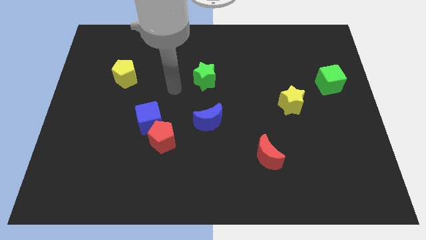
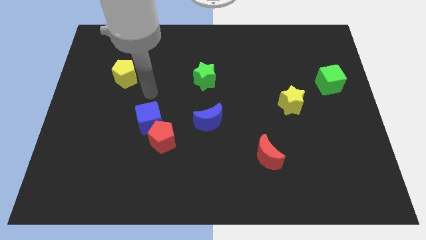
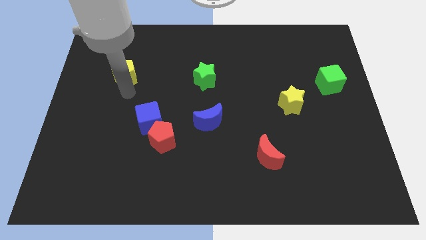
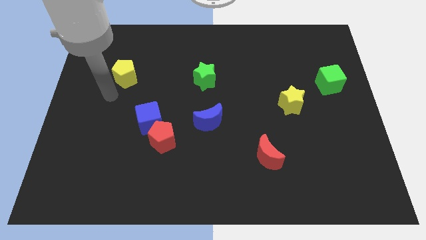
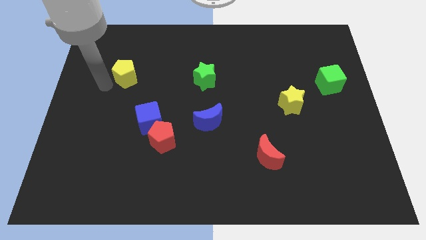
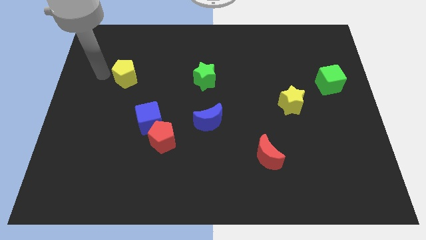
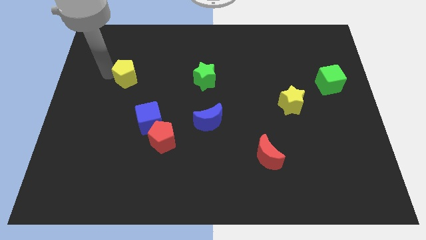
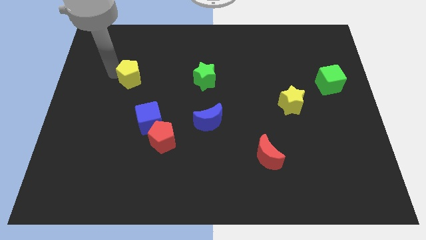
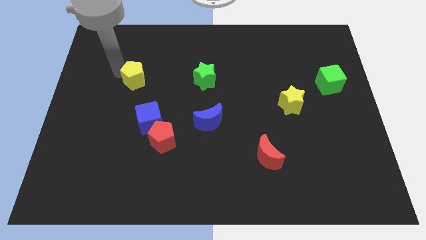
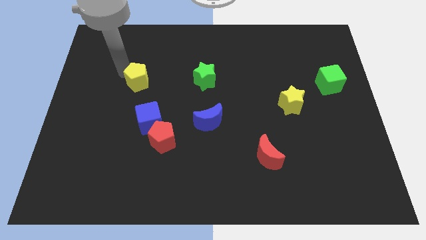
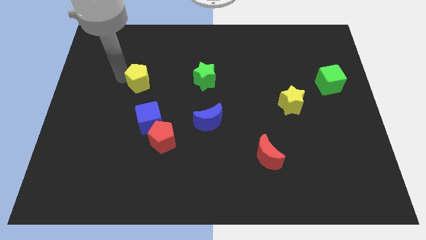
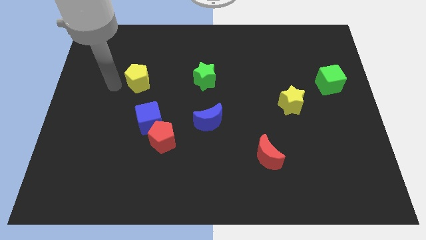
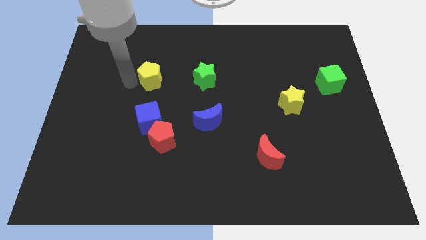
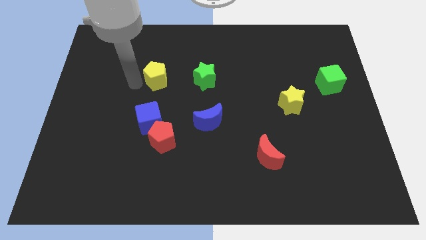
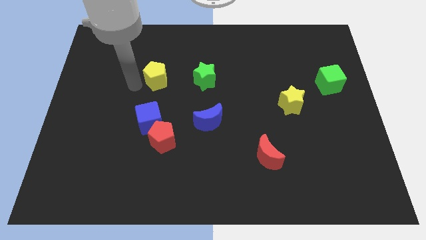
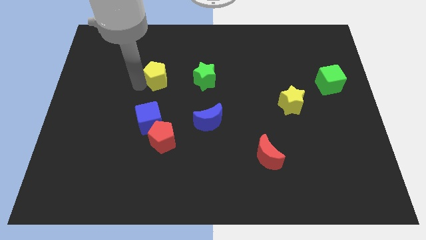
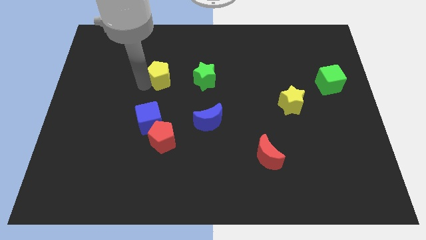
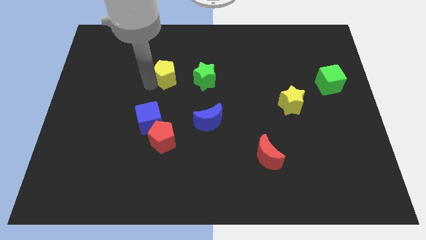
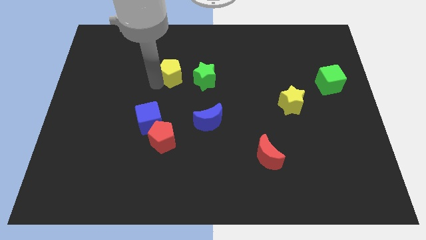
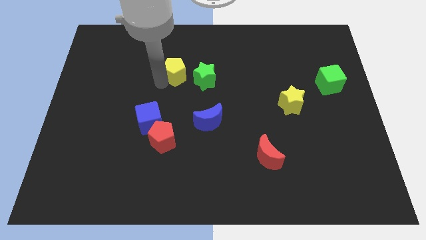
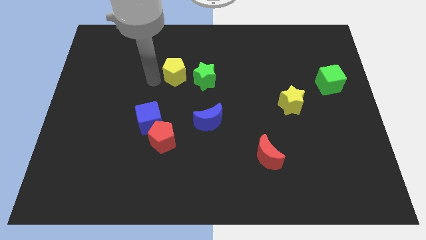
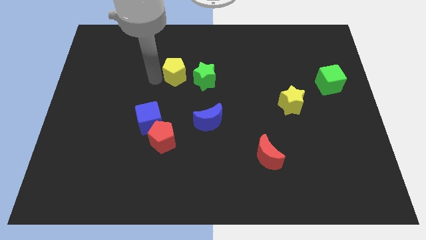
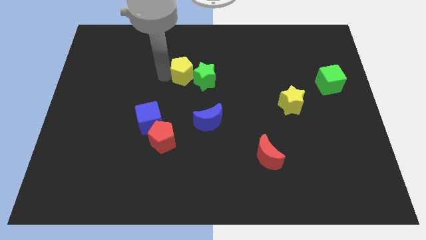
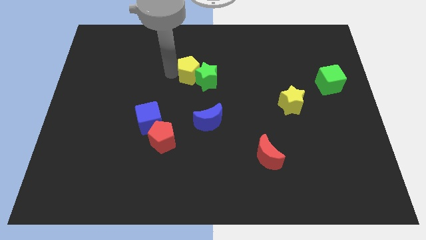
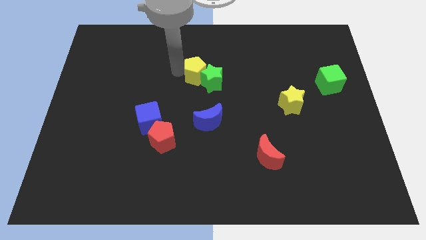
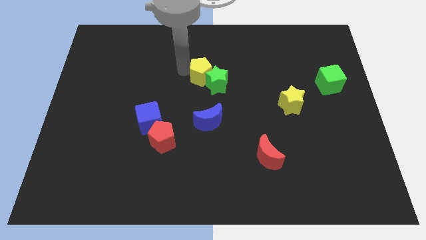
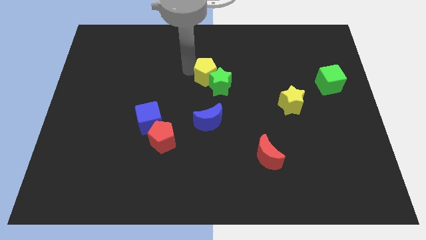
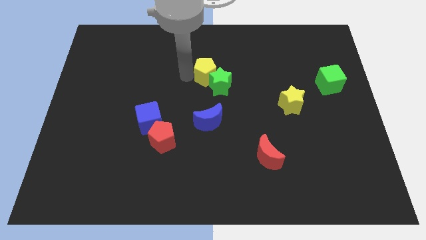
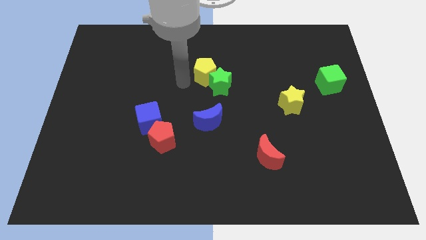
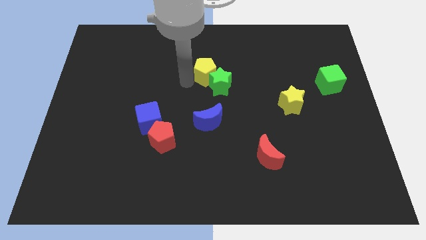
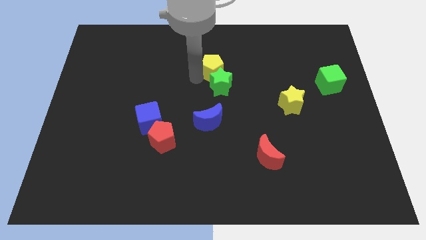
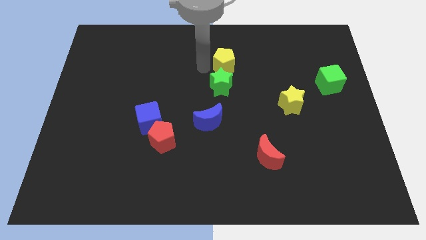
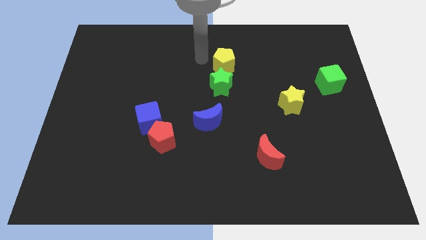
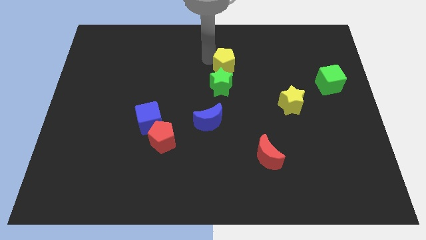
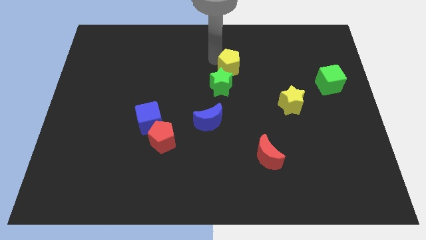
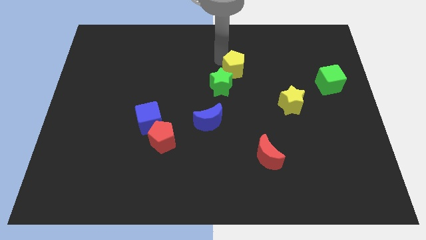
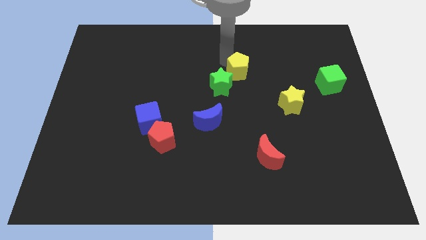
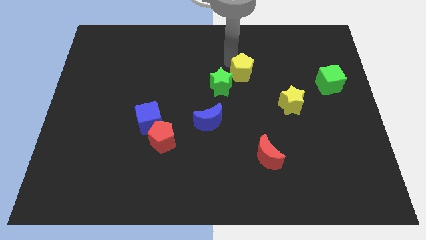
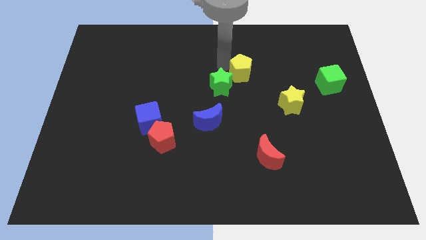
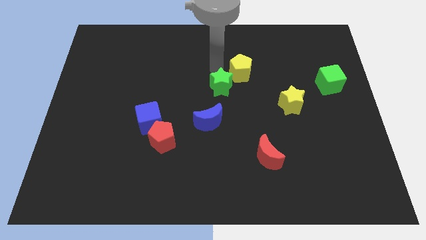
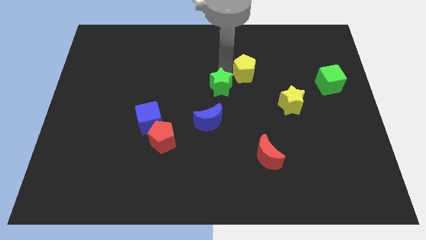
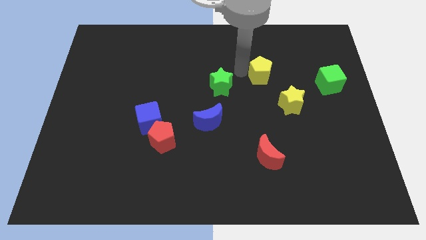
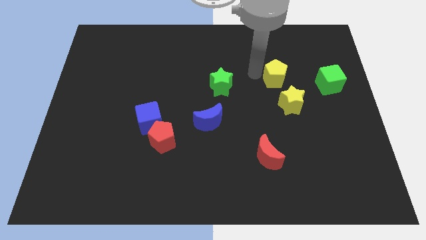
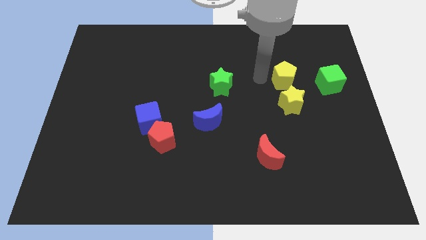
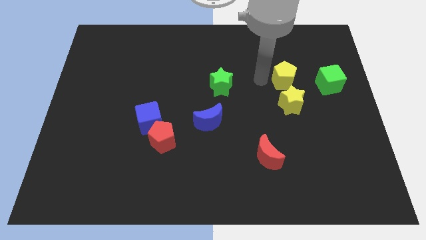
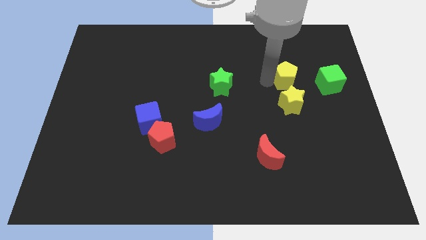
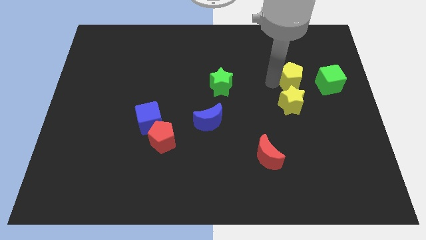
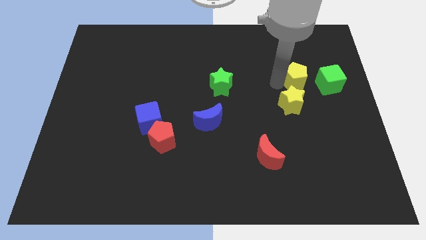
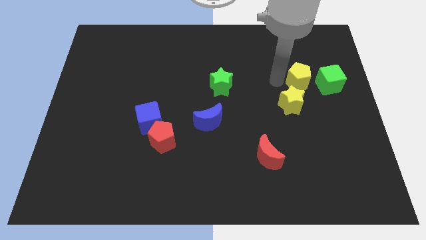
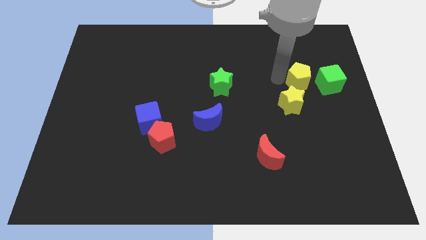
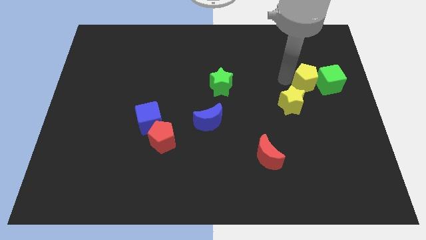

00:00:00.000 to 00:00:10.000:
move the yellow pentagon close to the green cube

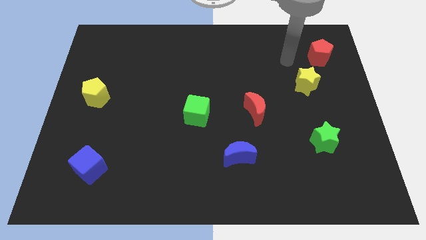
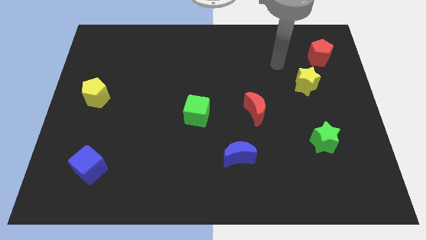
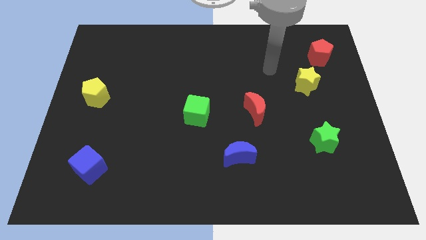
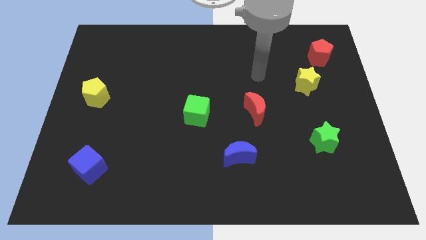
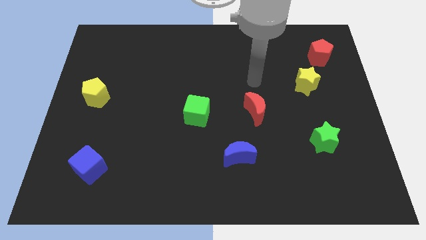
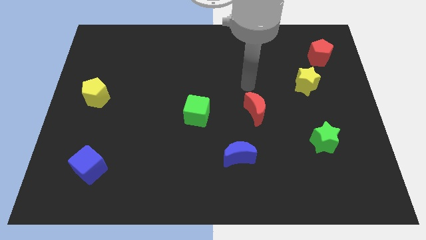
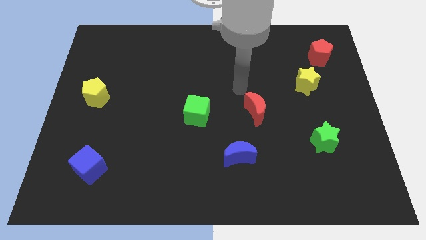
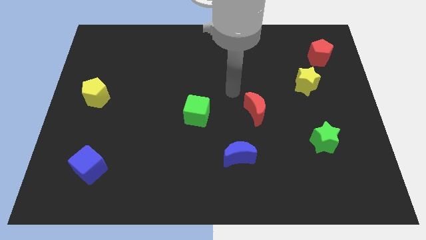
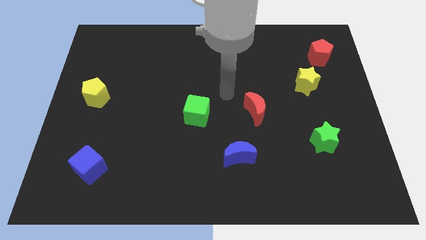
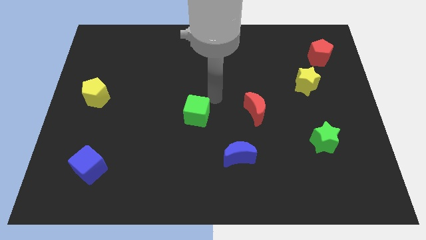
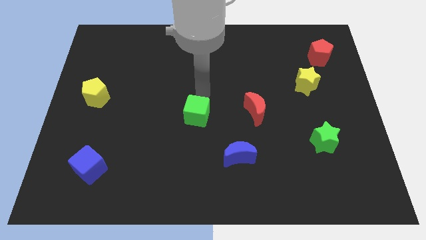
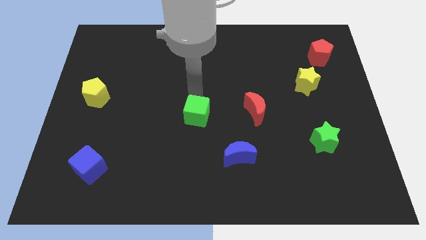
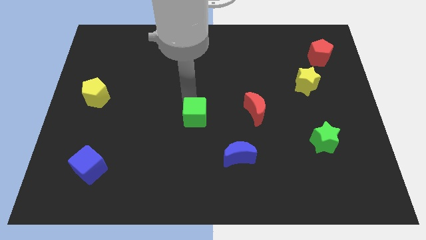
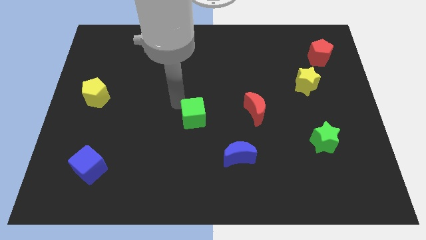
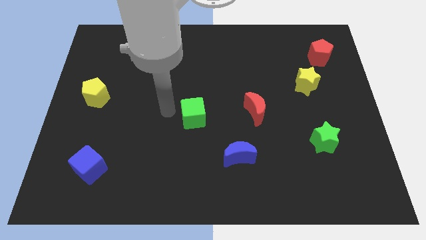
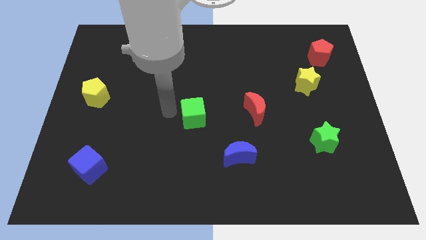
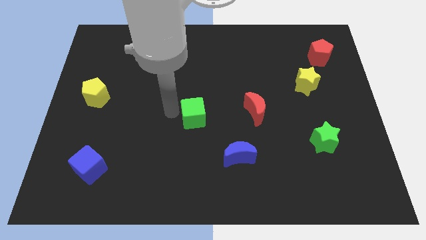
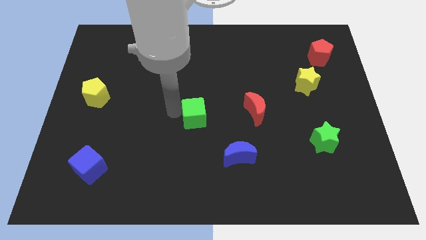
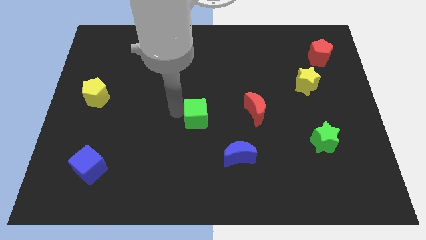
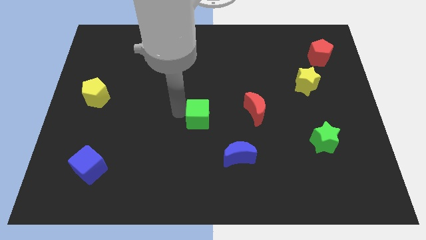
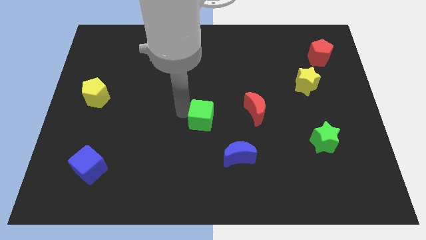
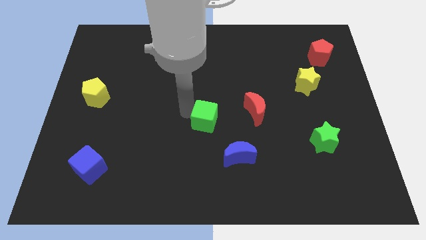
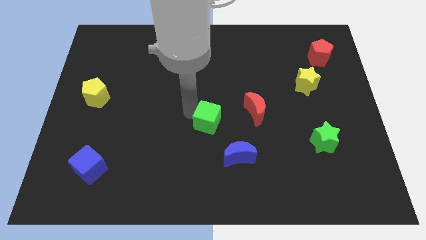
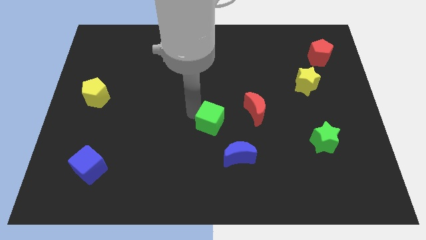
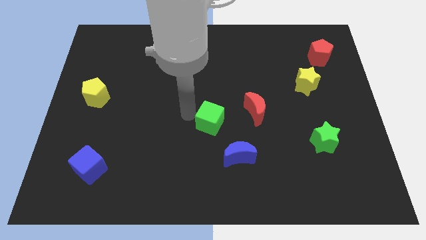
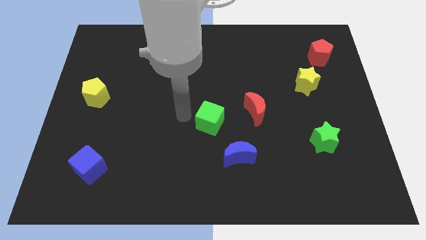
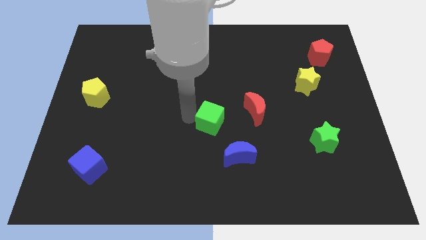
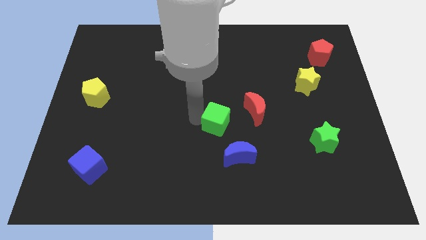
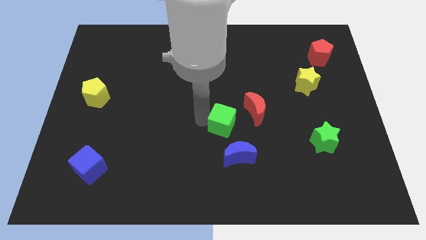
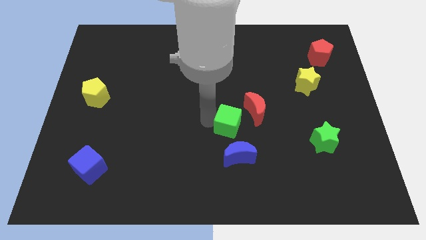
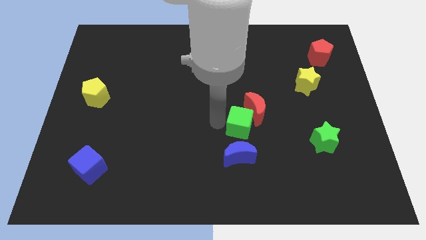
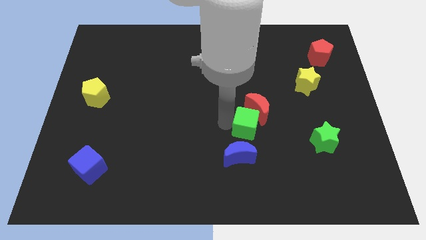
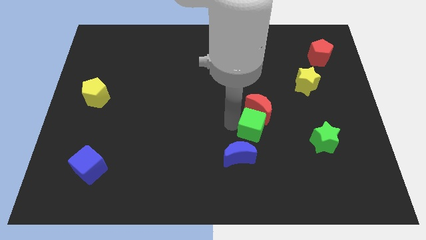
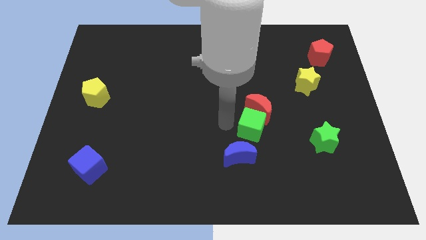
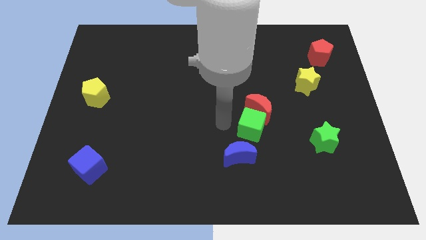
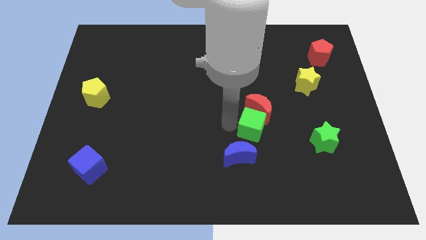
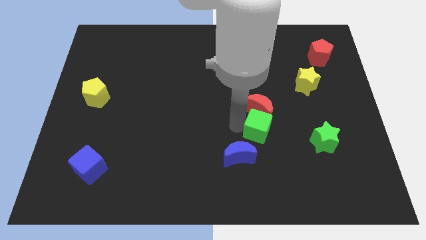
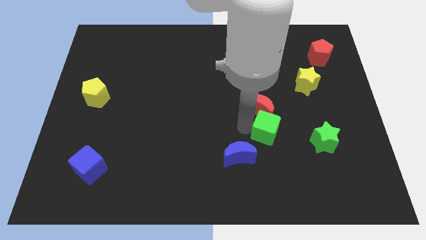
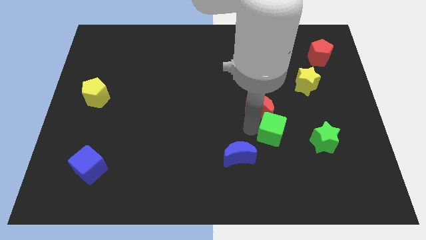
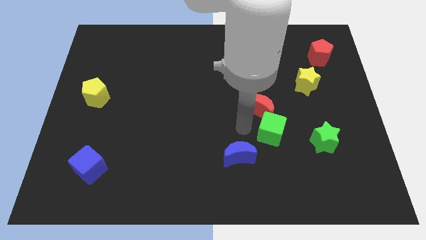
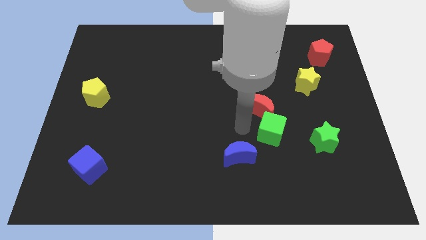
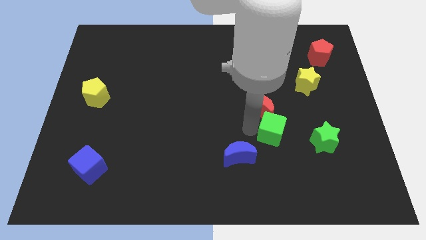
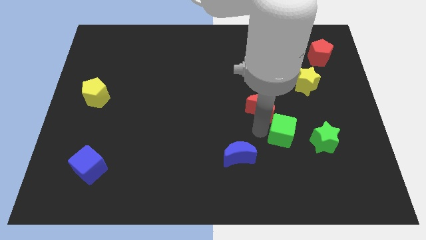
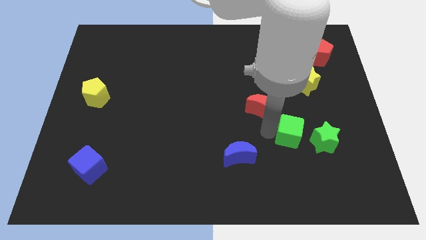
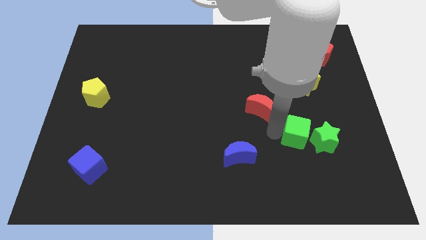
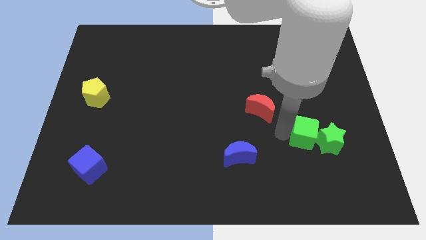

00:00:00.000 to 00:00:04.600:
push the green cube close to the green star
